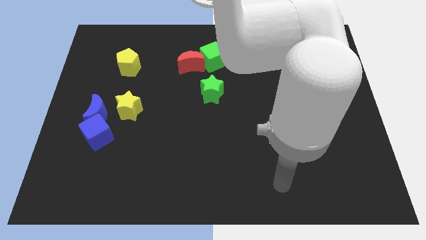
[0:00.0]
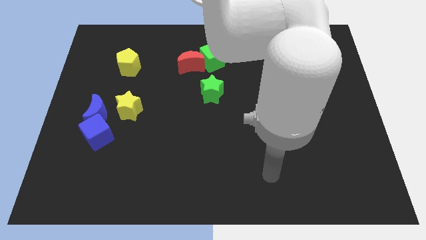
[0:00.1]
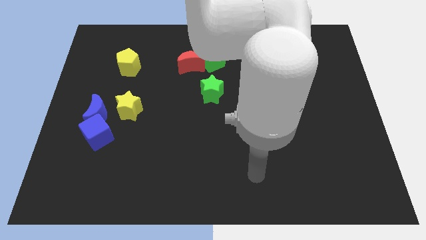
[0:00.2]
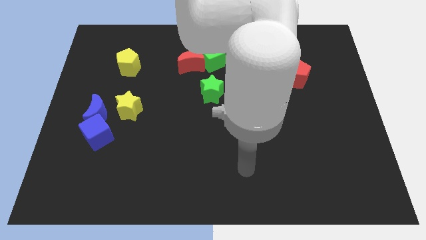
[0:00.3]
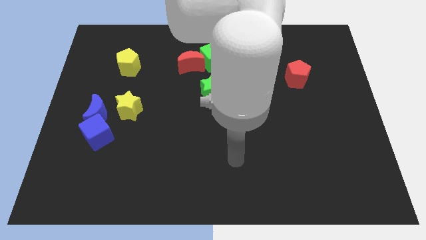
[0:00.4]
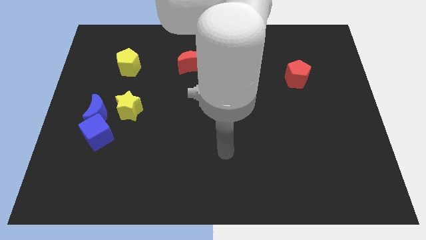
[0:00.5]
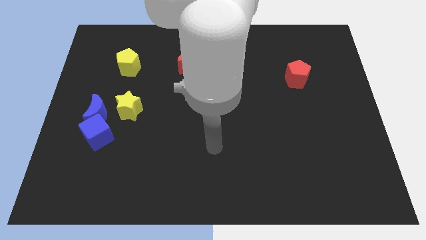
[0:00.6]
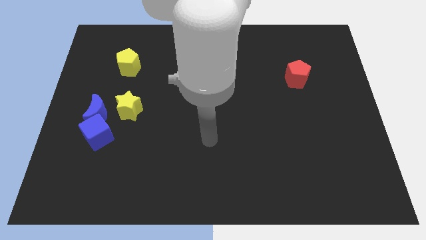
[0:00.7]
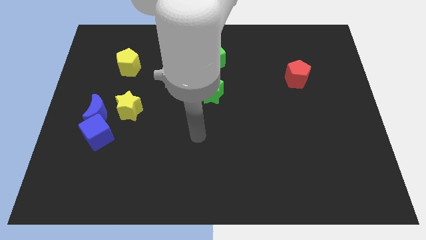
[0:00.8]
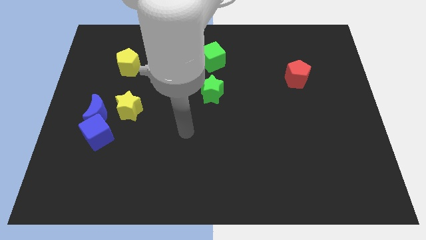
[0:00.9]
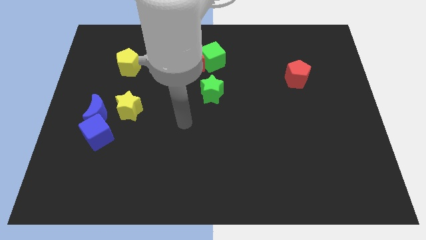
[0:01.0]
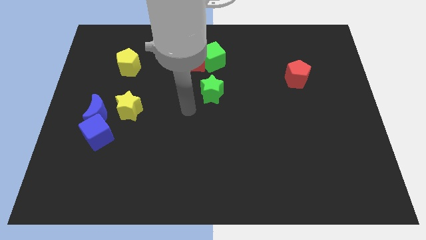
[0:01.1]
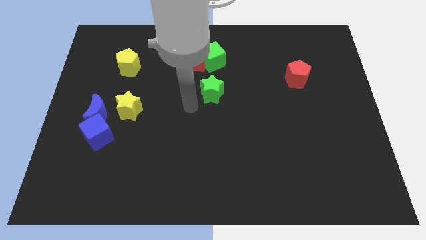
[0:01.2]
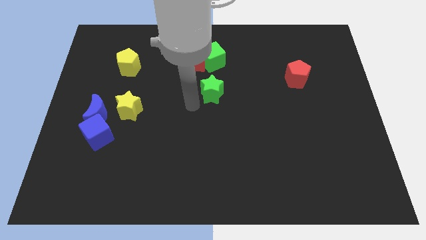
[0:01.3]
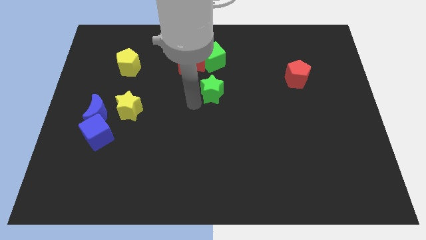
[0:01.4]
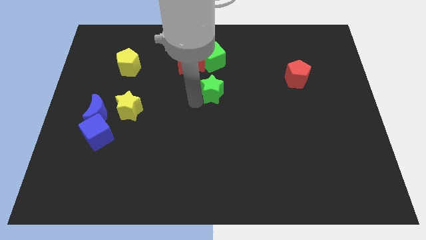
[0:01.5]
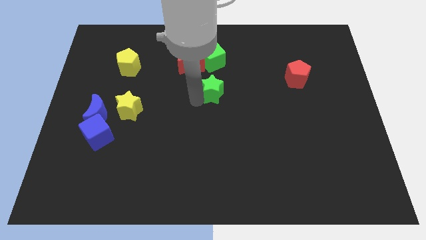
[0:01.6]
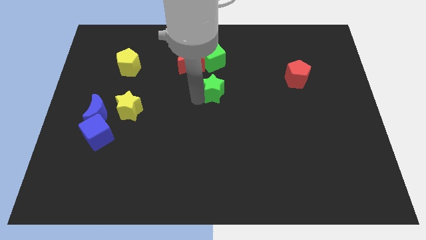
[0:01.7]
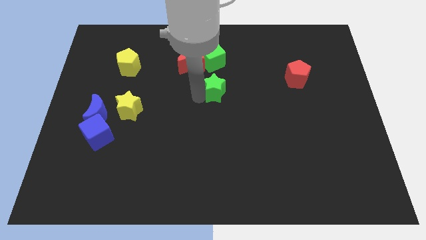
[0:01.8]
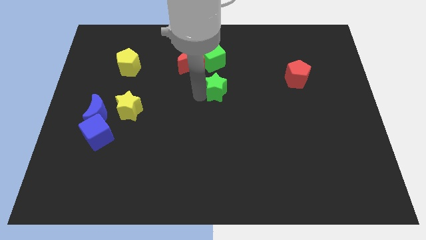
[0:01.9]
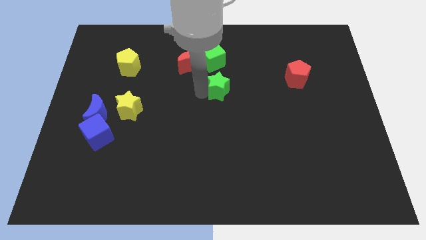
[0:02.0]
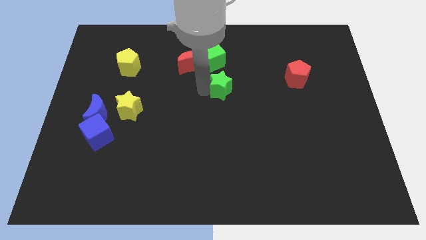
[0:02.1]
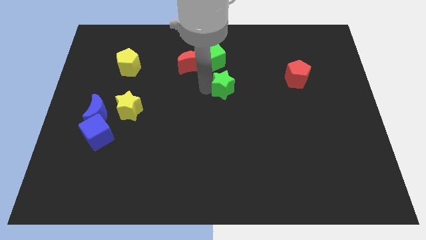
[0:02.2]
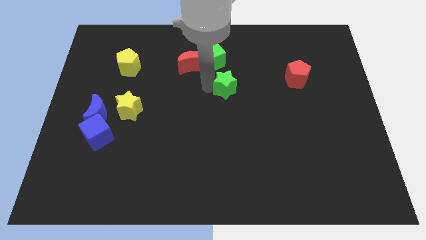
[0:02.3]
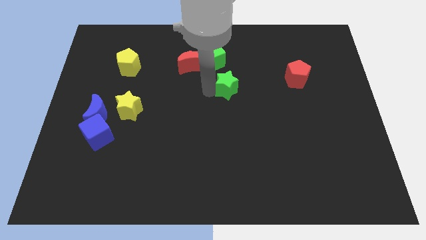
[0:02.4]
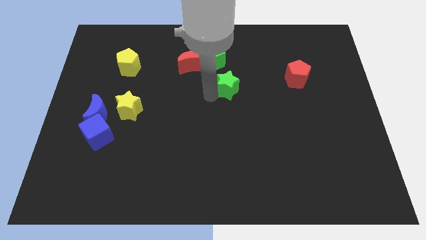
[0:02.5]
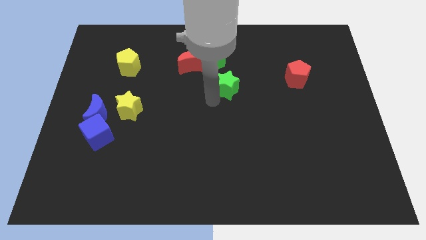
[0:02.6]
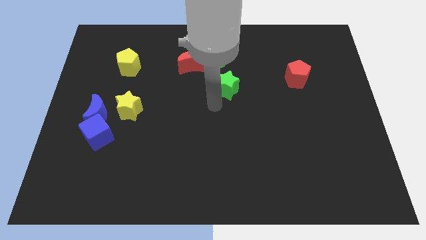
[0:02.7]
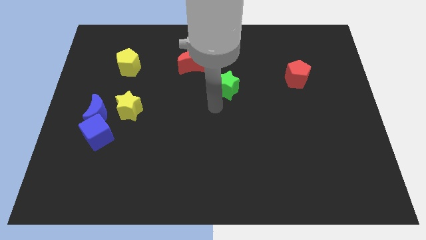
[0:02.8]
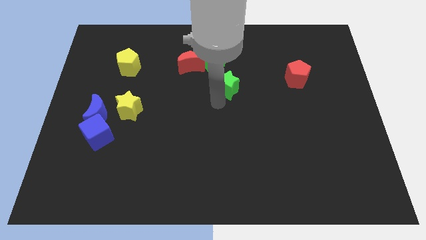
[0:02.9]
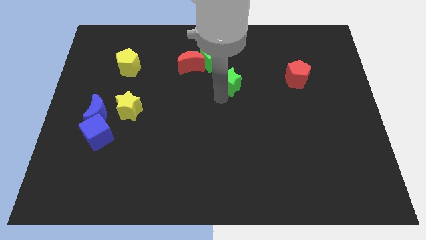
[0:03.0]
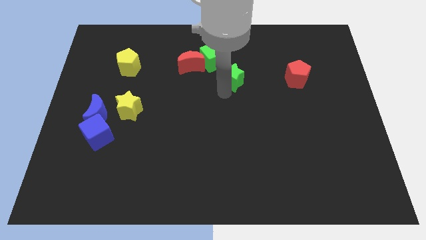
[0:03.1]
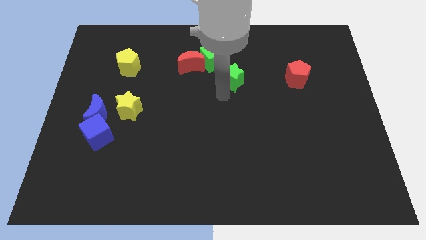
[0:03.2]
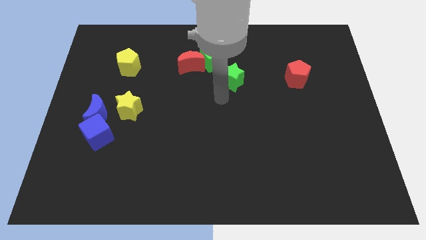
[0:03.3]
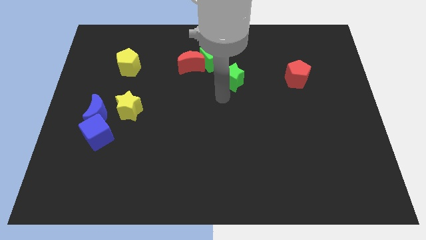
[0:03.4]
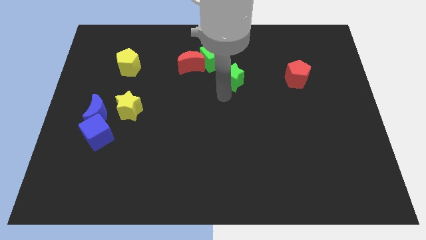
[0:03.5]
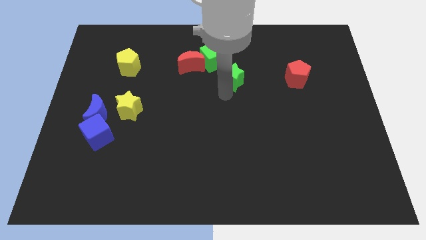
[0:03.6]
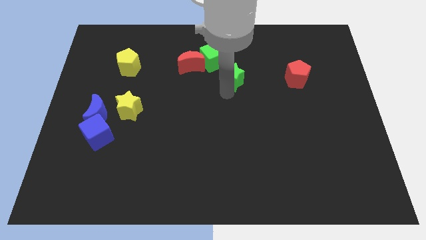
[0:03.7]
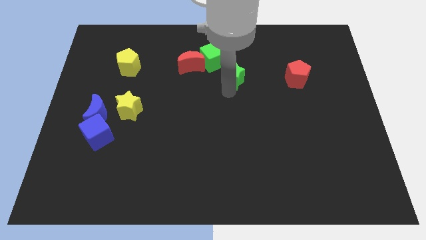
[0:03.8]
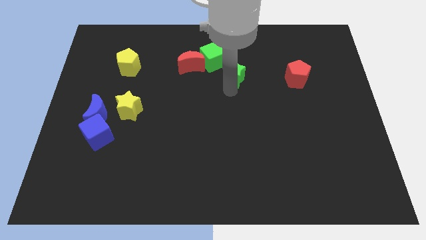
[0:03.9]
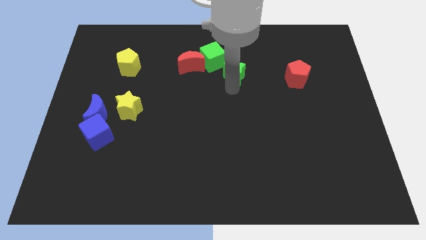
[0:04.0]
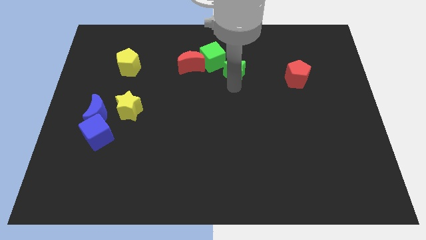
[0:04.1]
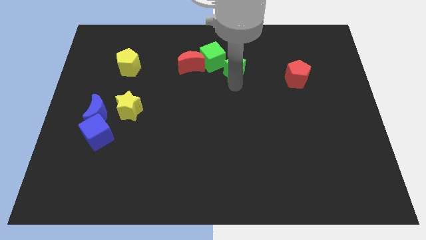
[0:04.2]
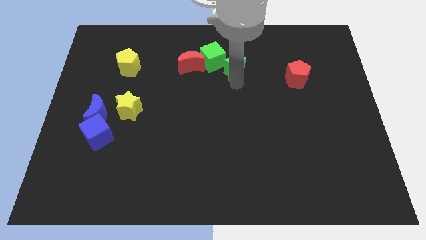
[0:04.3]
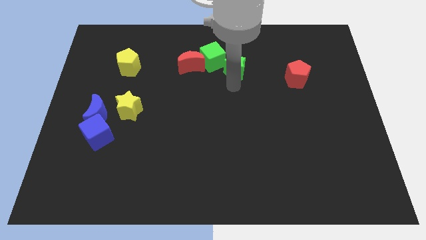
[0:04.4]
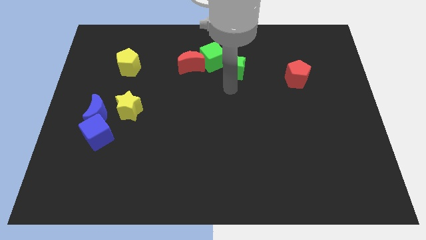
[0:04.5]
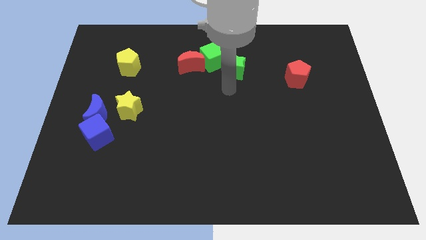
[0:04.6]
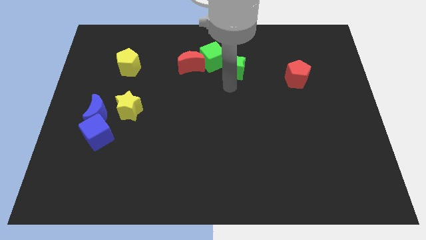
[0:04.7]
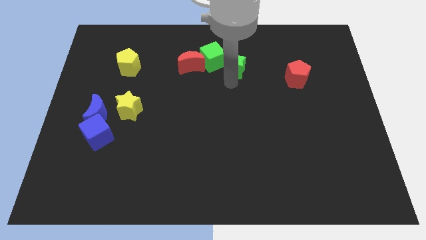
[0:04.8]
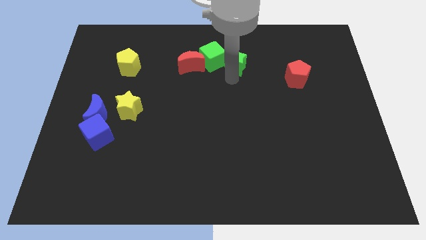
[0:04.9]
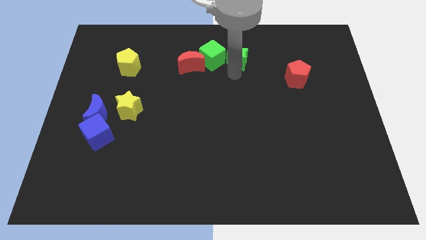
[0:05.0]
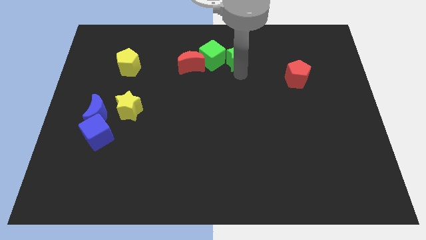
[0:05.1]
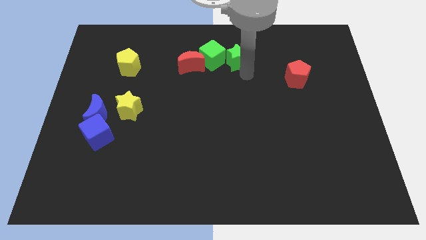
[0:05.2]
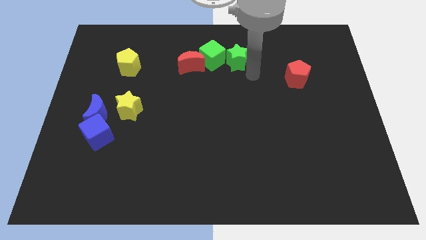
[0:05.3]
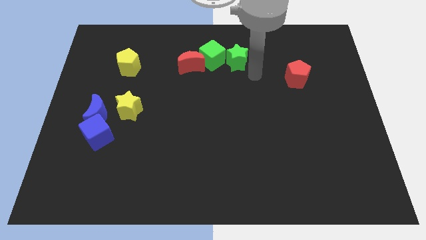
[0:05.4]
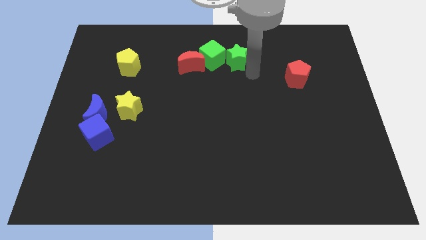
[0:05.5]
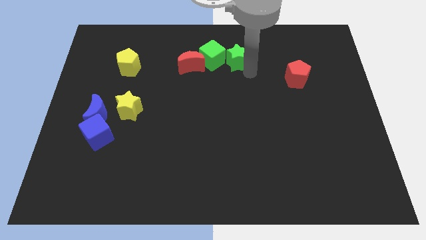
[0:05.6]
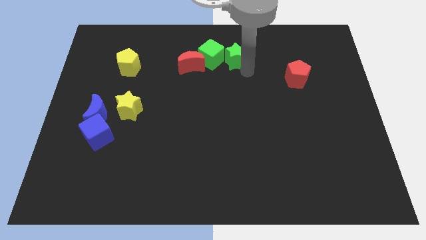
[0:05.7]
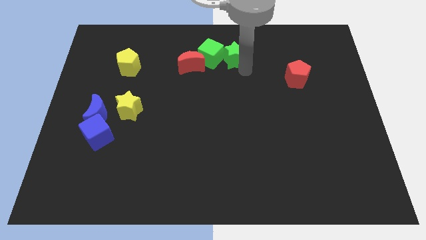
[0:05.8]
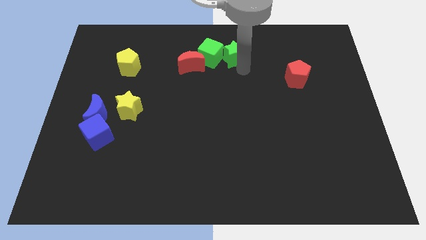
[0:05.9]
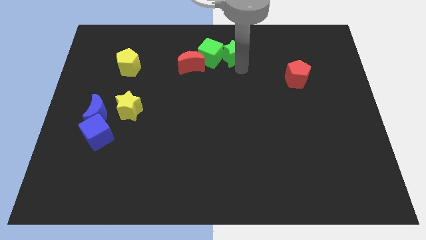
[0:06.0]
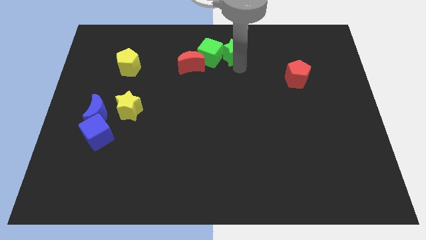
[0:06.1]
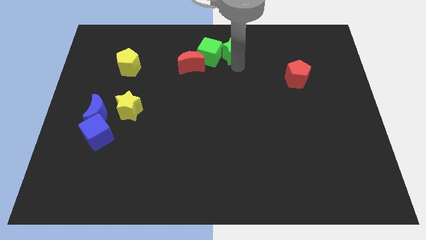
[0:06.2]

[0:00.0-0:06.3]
slide the green star to the top side
